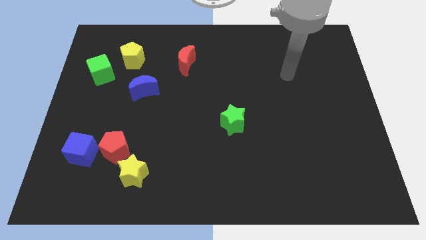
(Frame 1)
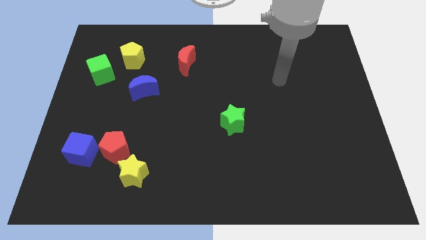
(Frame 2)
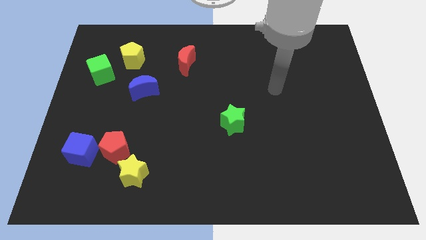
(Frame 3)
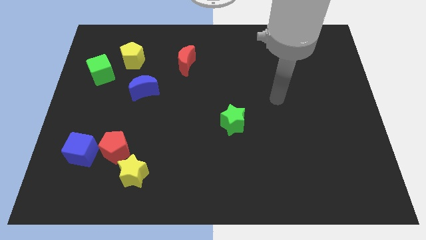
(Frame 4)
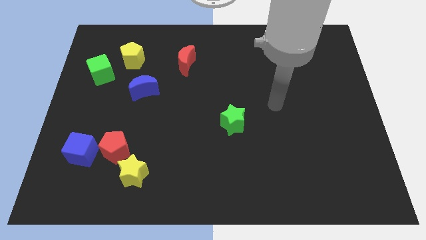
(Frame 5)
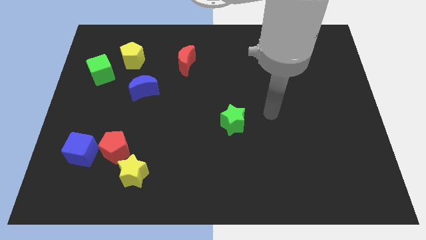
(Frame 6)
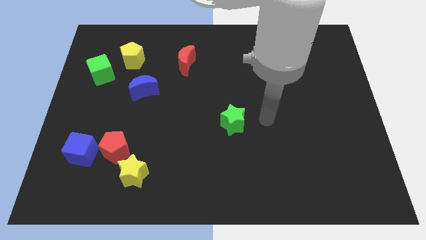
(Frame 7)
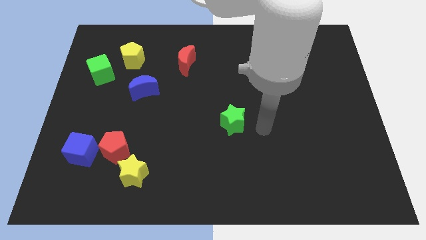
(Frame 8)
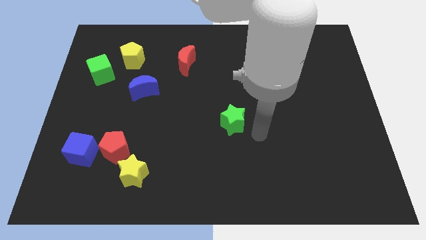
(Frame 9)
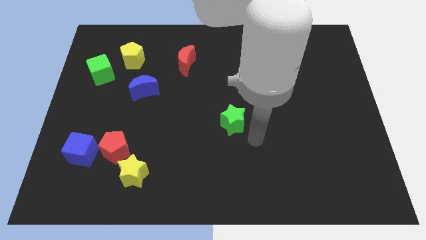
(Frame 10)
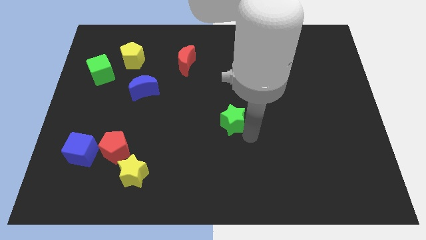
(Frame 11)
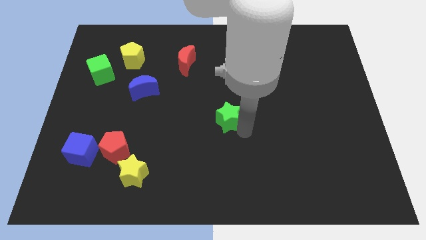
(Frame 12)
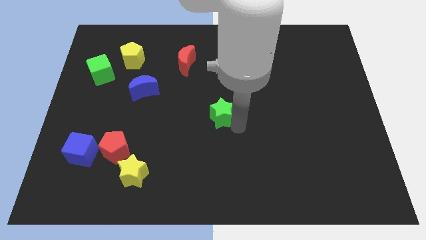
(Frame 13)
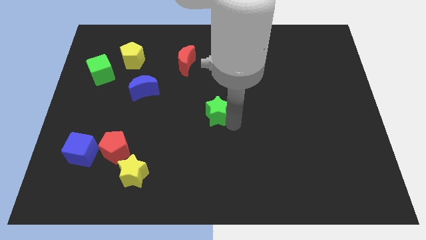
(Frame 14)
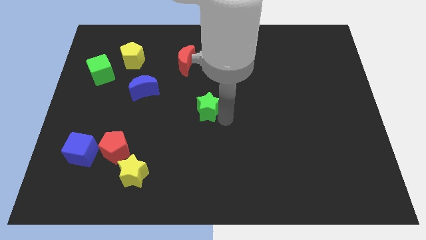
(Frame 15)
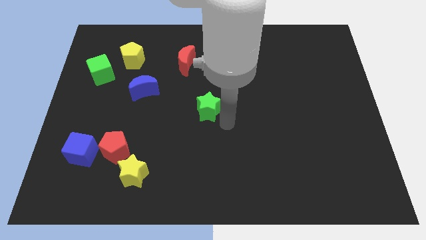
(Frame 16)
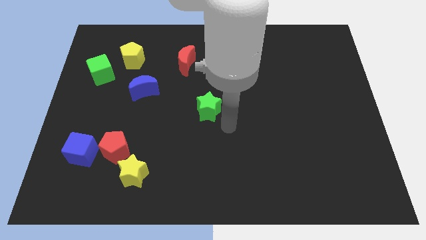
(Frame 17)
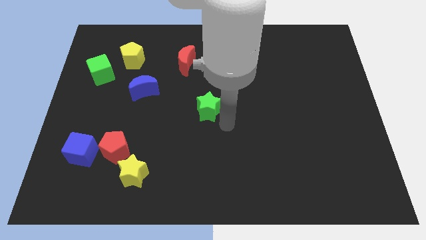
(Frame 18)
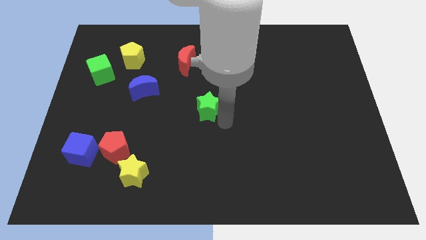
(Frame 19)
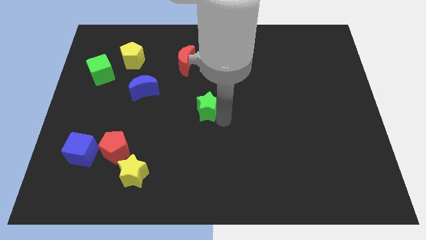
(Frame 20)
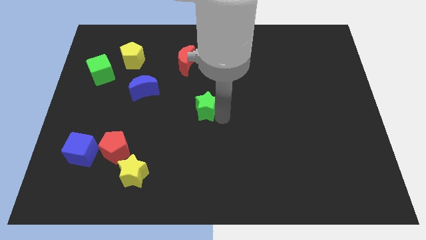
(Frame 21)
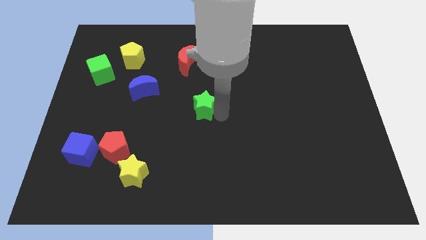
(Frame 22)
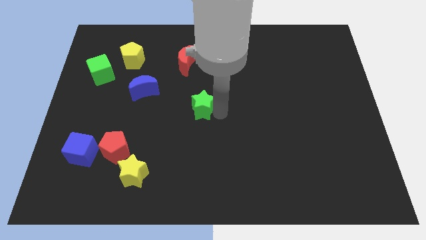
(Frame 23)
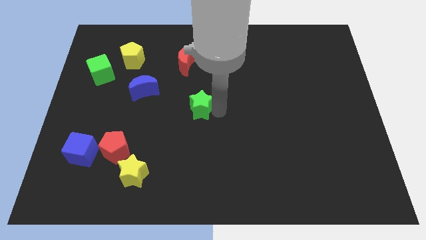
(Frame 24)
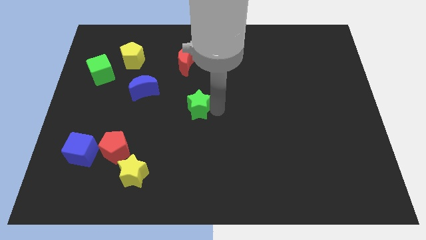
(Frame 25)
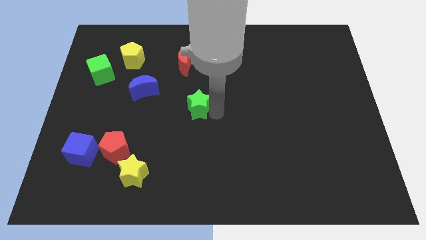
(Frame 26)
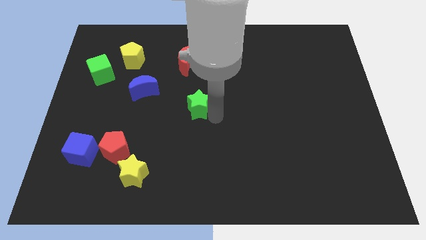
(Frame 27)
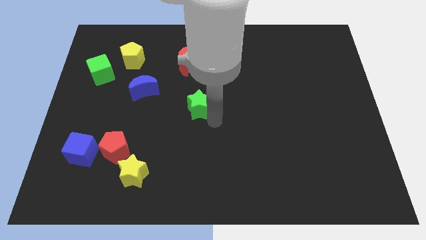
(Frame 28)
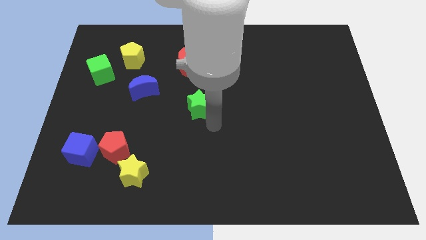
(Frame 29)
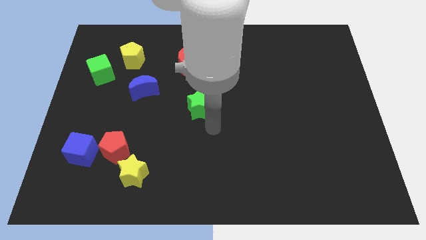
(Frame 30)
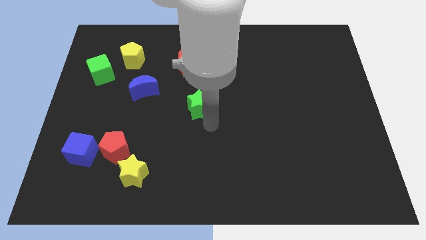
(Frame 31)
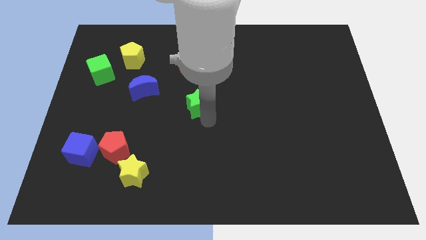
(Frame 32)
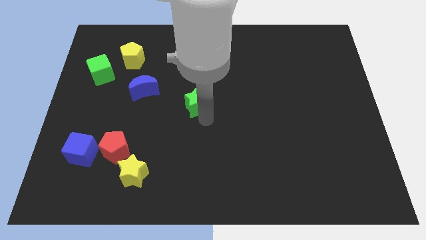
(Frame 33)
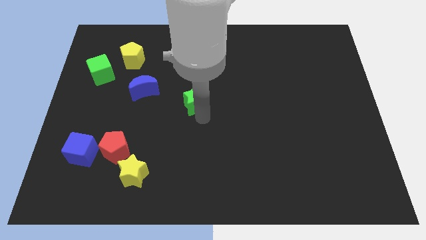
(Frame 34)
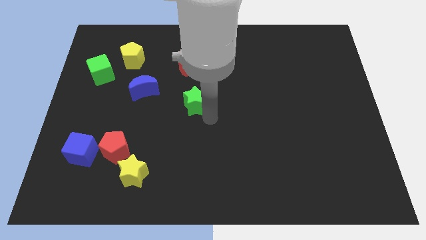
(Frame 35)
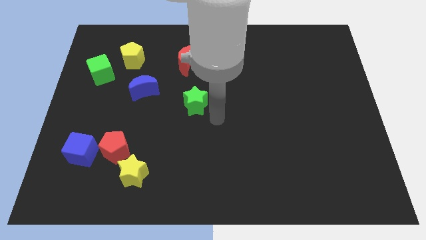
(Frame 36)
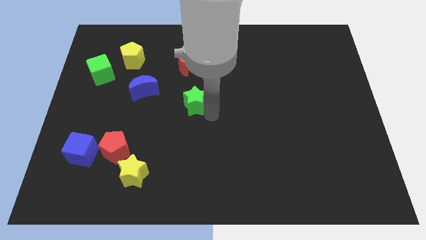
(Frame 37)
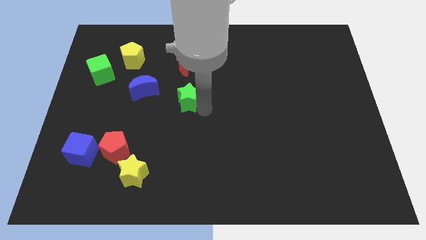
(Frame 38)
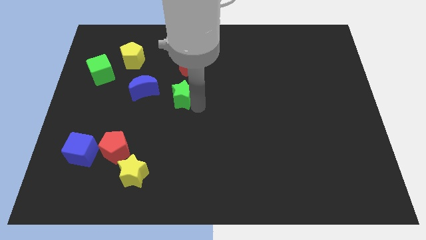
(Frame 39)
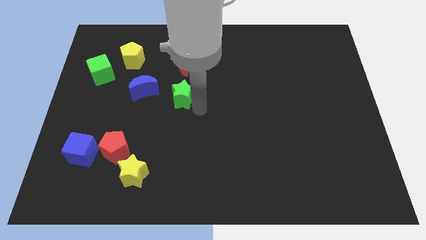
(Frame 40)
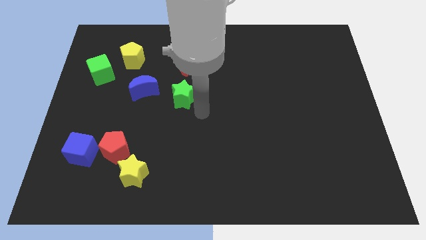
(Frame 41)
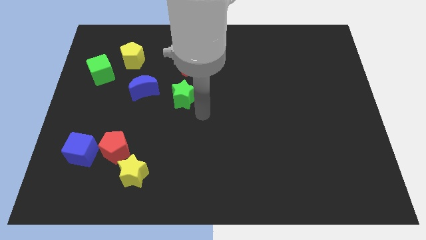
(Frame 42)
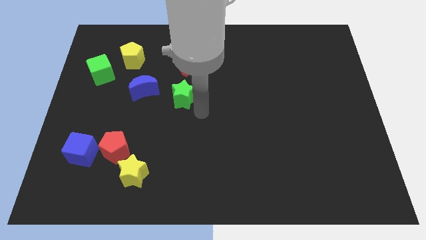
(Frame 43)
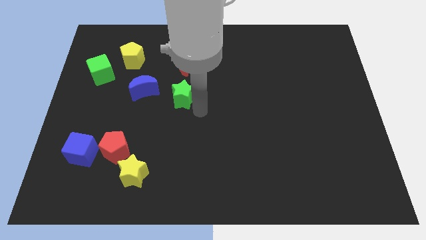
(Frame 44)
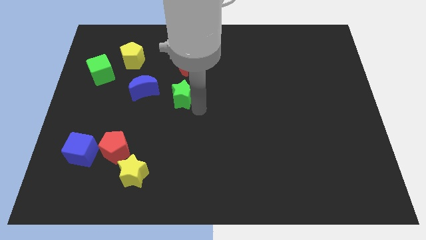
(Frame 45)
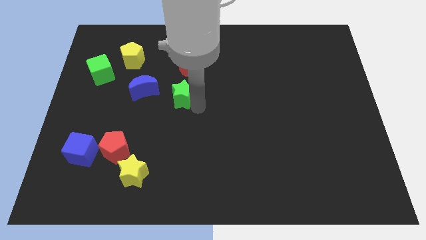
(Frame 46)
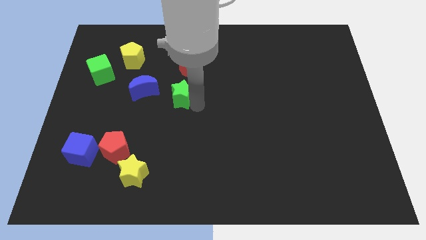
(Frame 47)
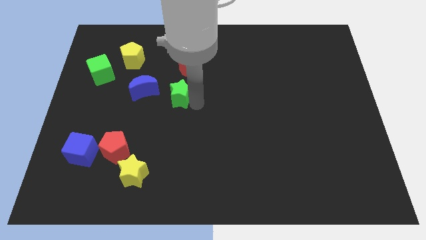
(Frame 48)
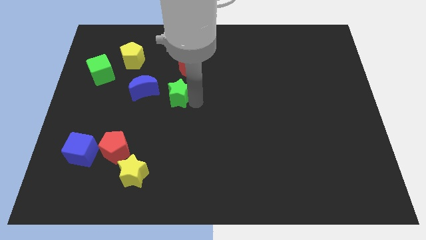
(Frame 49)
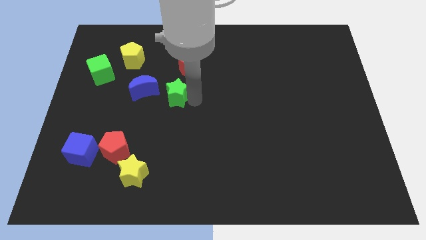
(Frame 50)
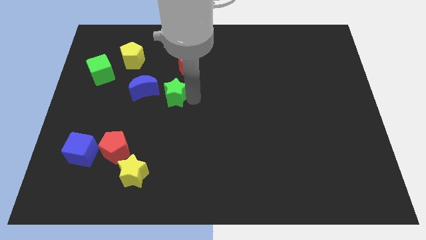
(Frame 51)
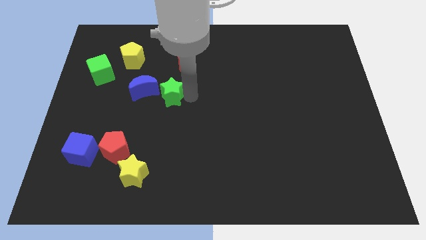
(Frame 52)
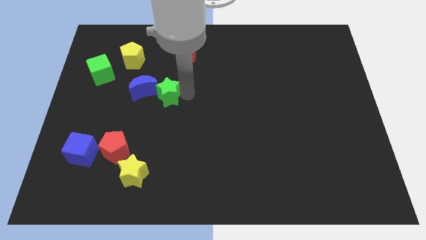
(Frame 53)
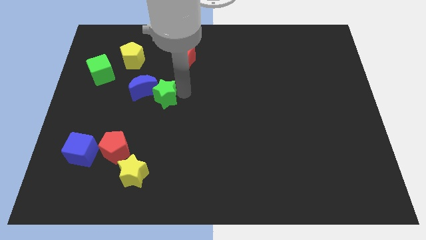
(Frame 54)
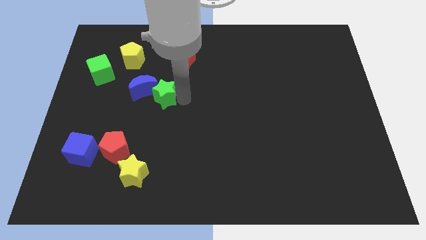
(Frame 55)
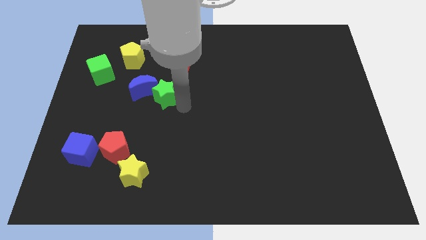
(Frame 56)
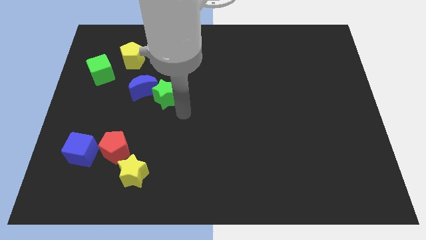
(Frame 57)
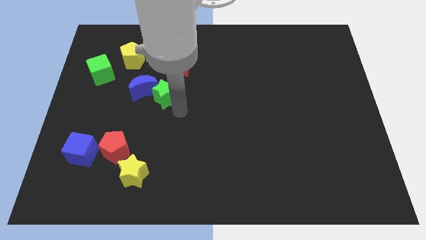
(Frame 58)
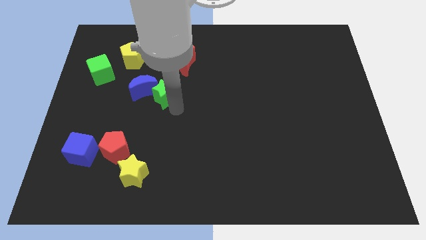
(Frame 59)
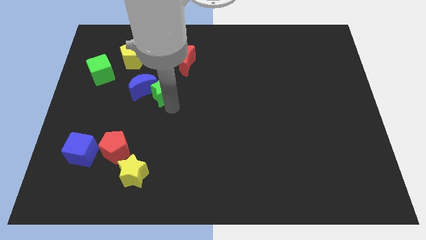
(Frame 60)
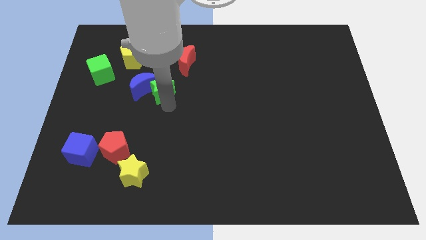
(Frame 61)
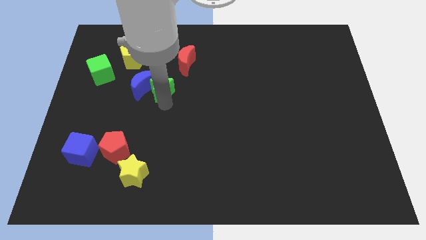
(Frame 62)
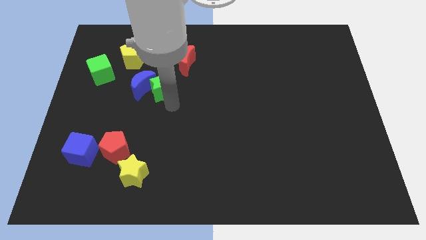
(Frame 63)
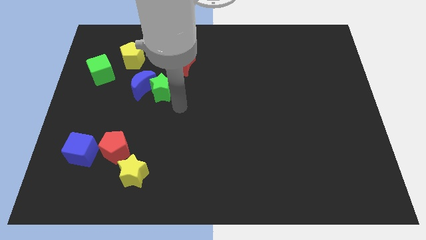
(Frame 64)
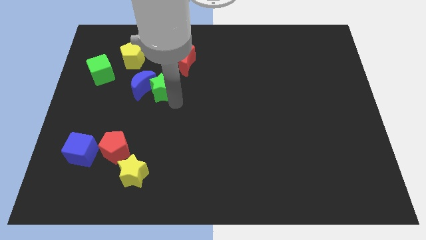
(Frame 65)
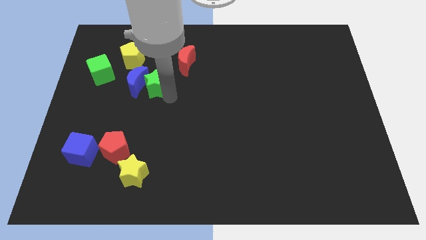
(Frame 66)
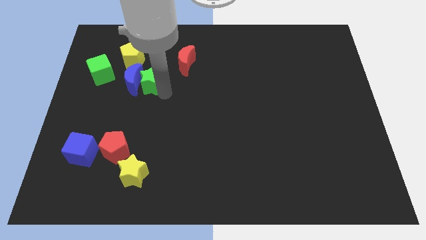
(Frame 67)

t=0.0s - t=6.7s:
slide the green star just right of the green cube

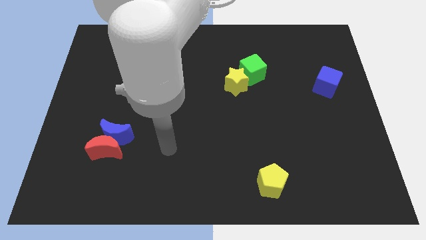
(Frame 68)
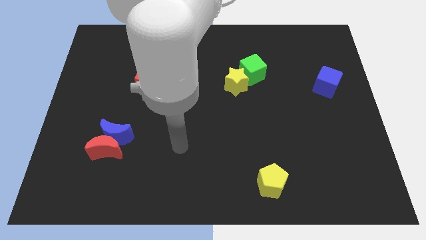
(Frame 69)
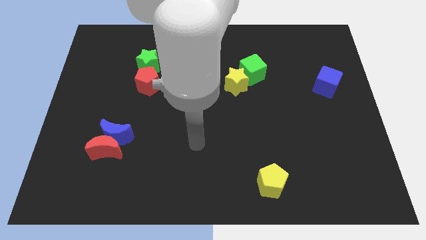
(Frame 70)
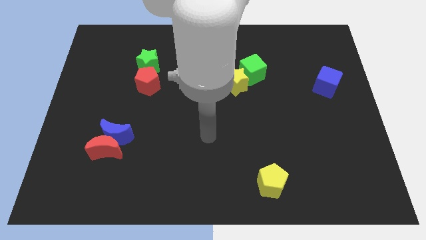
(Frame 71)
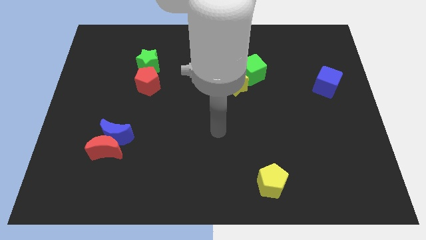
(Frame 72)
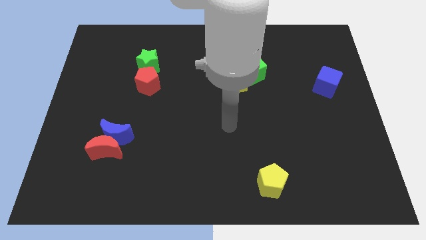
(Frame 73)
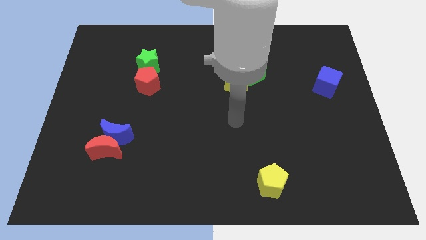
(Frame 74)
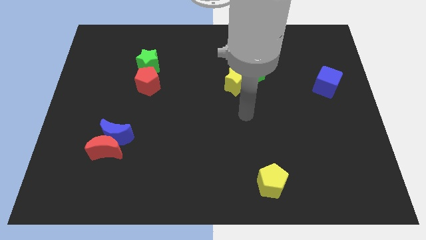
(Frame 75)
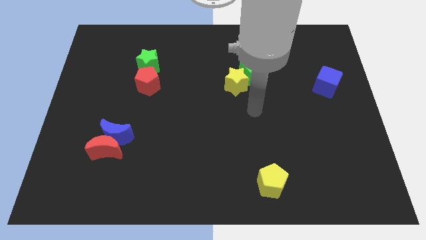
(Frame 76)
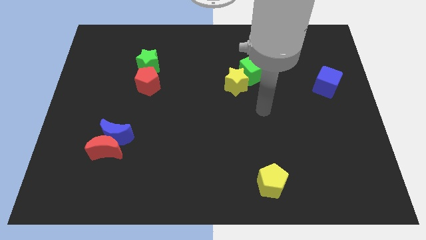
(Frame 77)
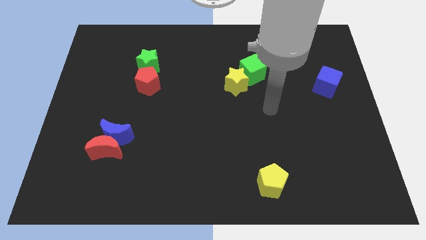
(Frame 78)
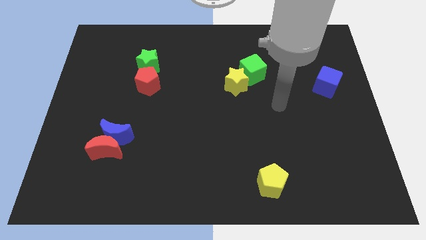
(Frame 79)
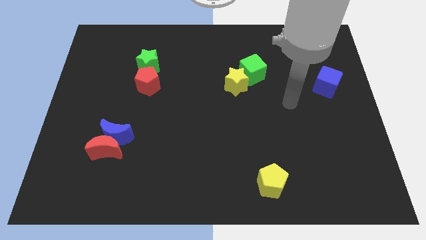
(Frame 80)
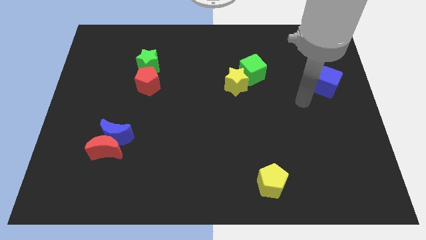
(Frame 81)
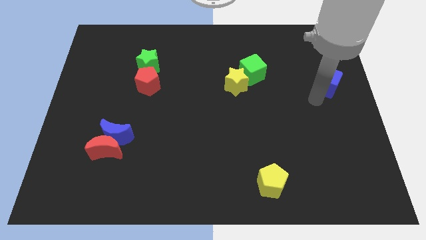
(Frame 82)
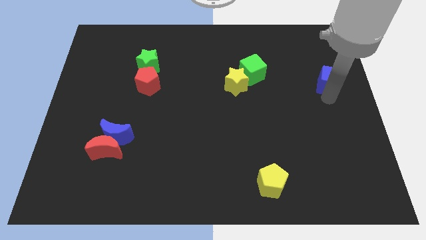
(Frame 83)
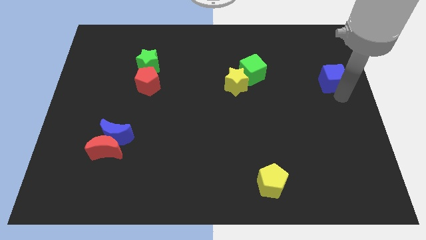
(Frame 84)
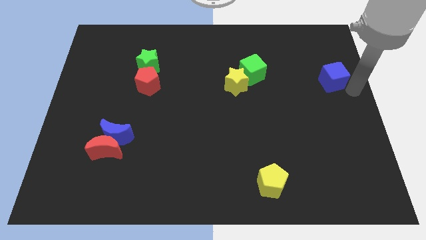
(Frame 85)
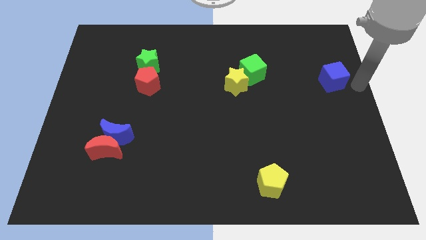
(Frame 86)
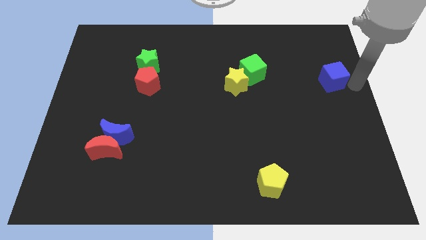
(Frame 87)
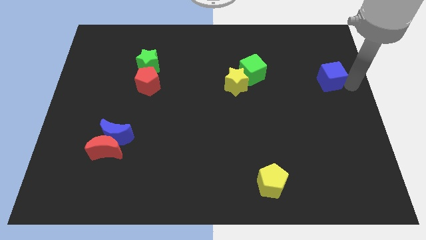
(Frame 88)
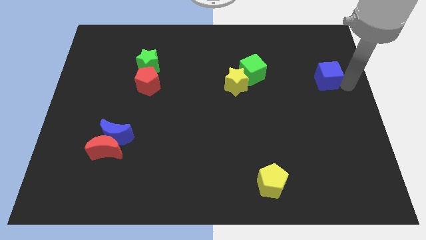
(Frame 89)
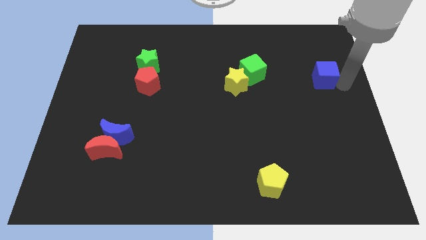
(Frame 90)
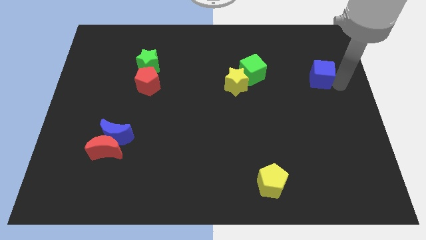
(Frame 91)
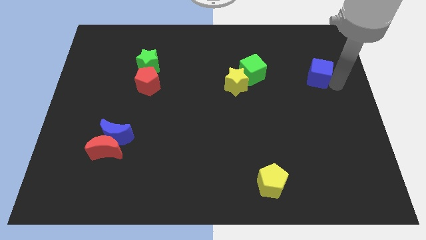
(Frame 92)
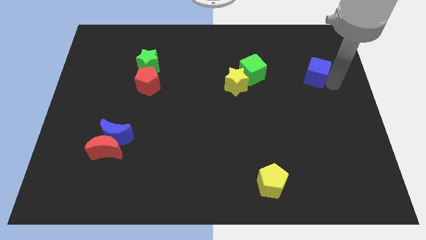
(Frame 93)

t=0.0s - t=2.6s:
move the blue cube to the right side of the green cube
